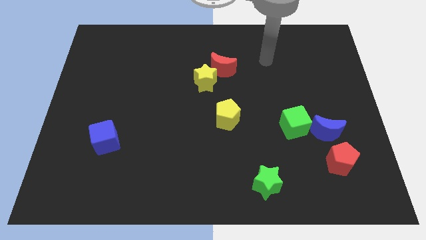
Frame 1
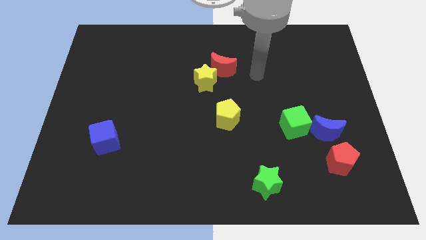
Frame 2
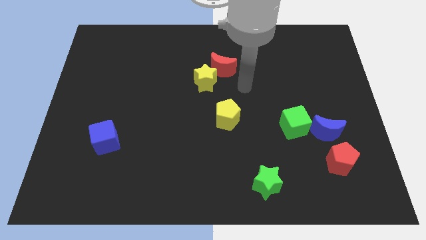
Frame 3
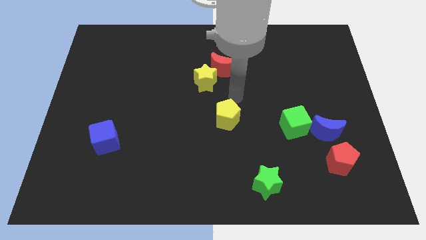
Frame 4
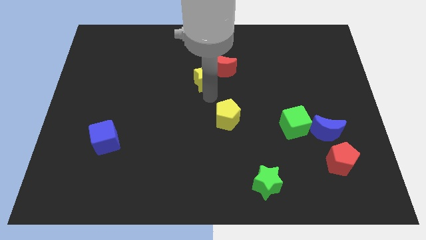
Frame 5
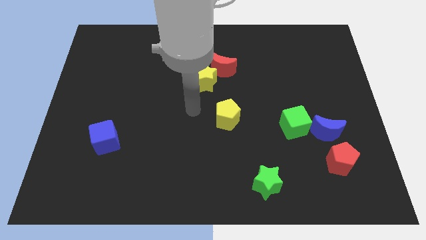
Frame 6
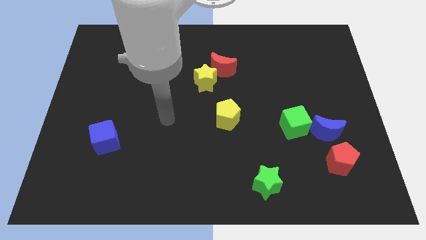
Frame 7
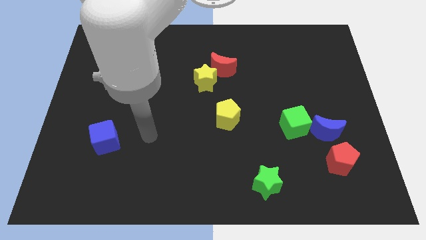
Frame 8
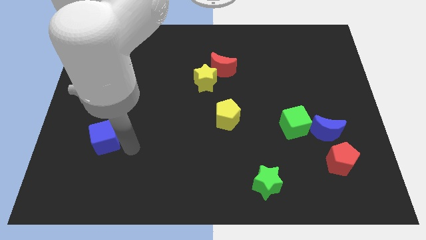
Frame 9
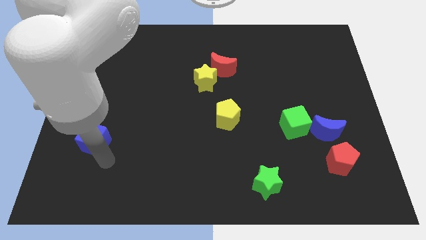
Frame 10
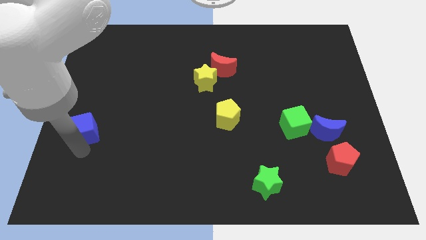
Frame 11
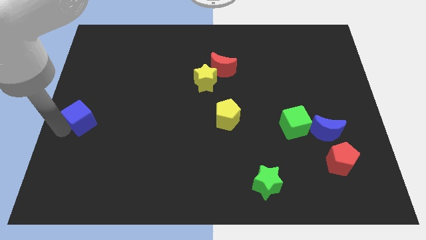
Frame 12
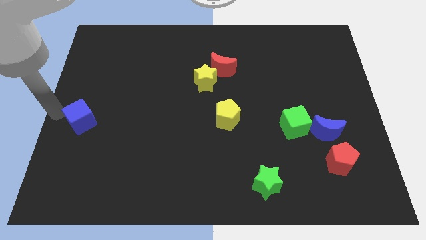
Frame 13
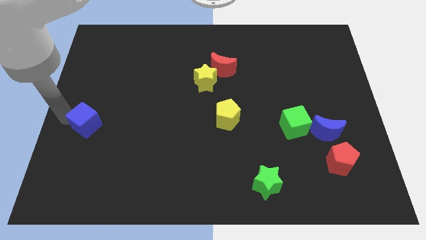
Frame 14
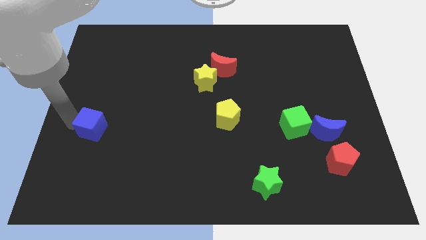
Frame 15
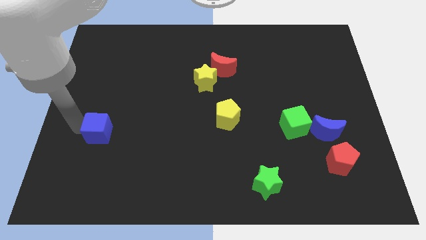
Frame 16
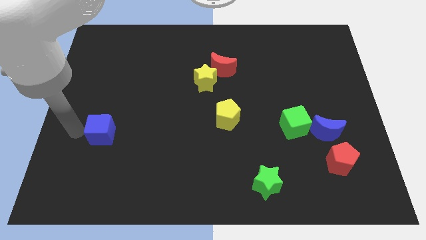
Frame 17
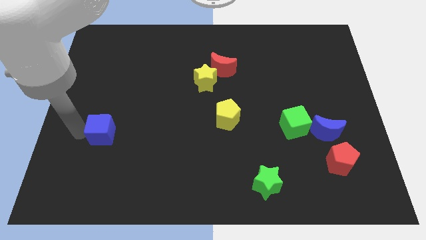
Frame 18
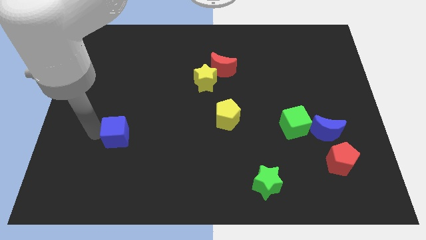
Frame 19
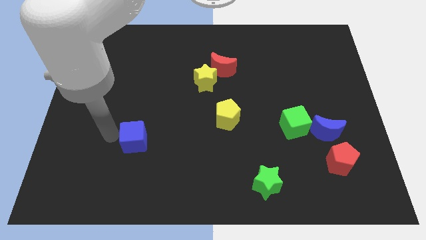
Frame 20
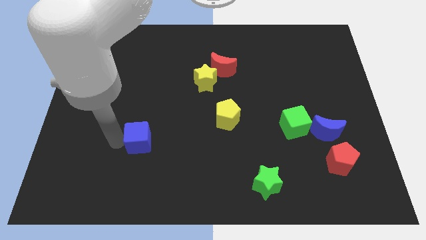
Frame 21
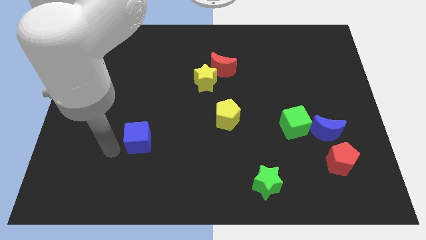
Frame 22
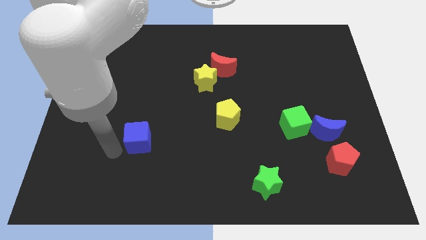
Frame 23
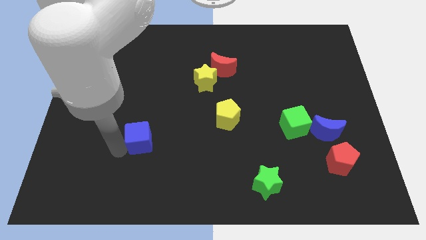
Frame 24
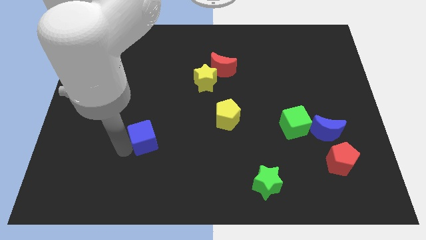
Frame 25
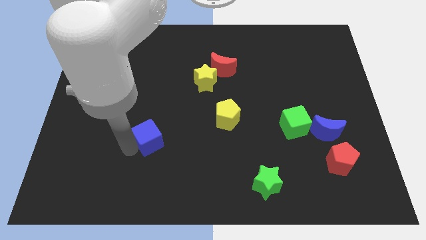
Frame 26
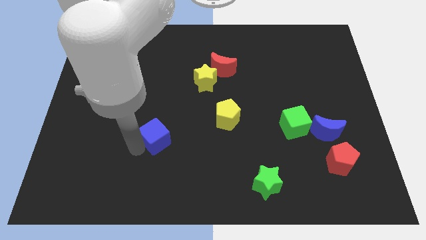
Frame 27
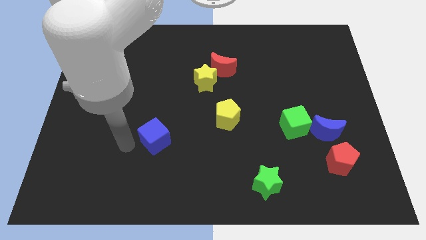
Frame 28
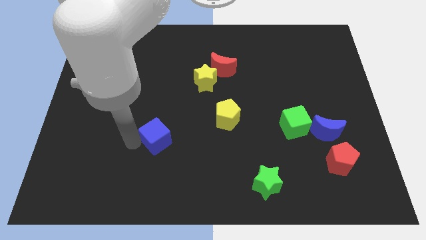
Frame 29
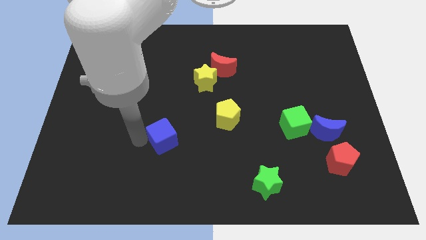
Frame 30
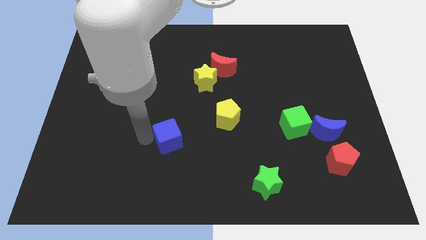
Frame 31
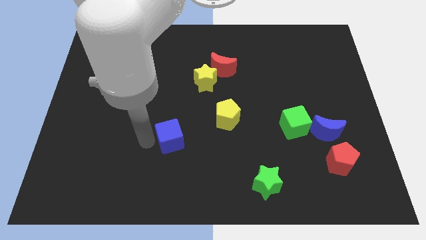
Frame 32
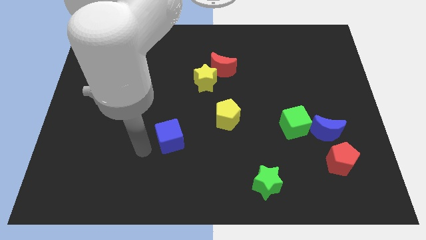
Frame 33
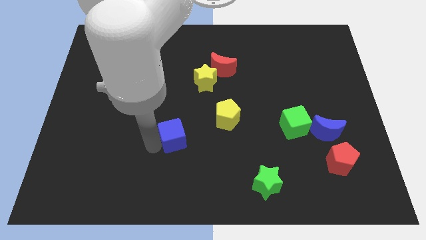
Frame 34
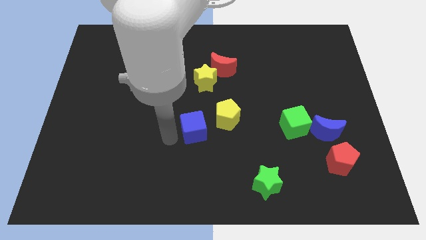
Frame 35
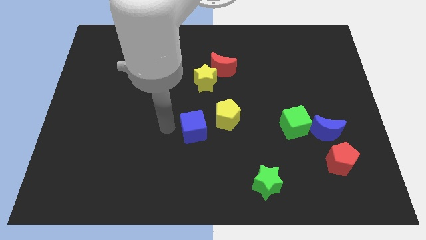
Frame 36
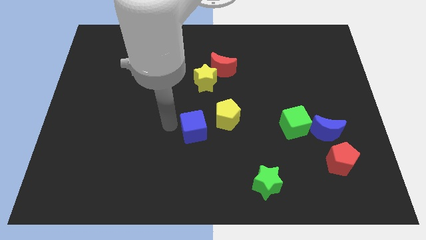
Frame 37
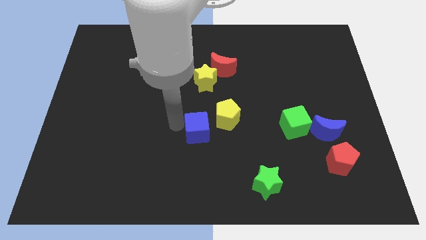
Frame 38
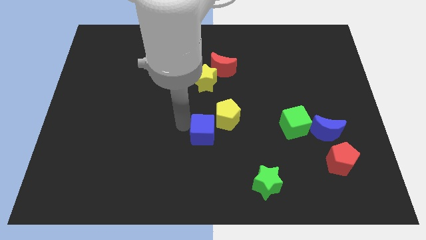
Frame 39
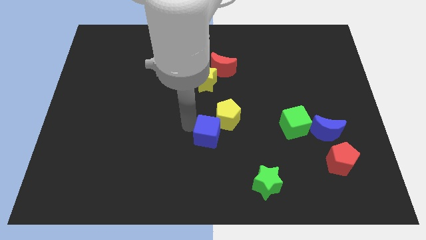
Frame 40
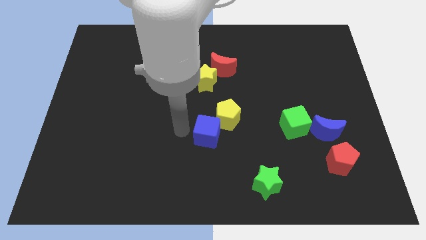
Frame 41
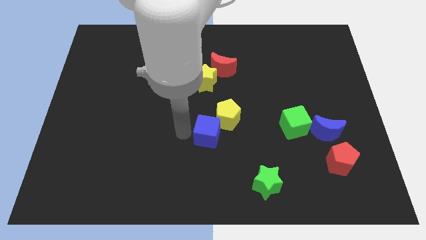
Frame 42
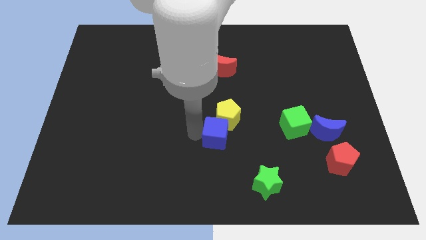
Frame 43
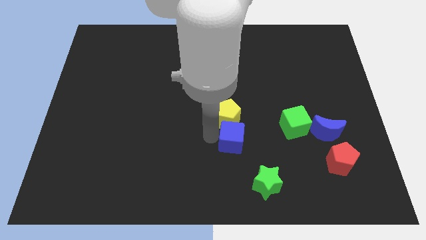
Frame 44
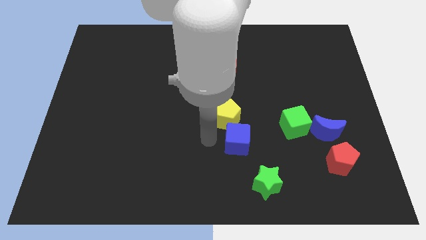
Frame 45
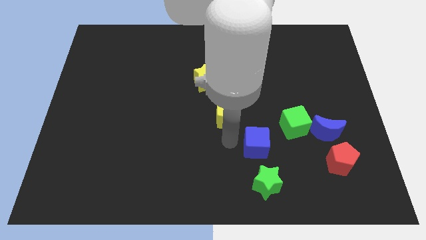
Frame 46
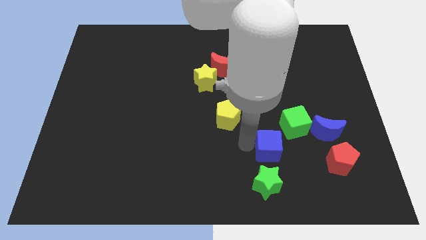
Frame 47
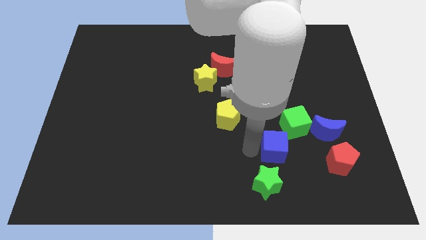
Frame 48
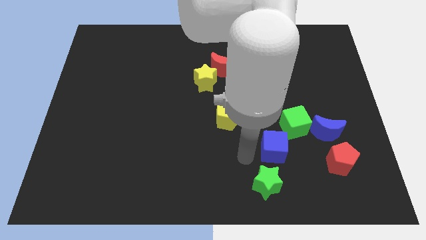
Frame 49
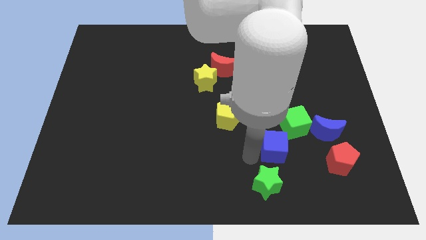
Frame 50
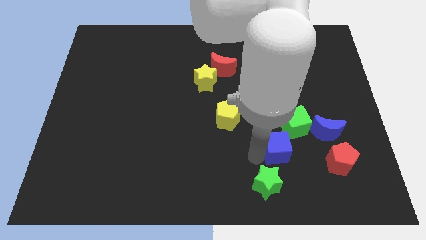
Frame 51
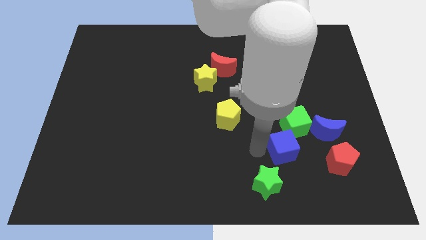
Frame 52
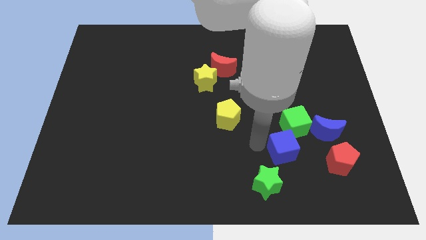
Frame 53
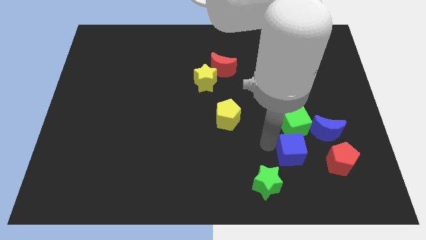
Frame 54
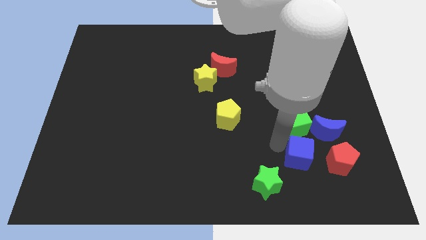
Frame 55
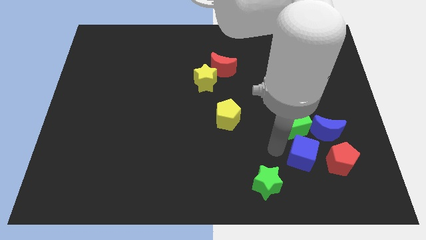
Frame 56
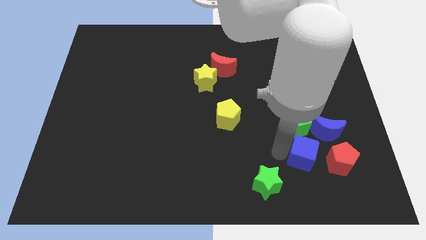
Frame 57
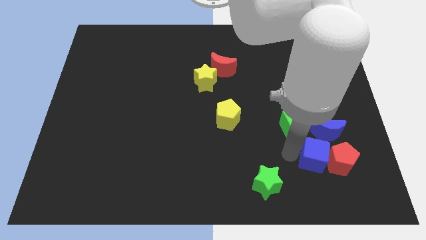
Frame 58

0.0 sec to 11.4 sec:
push the blue cube next to the red pentagon

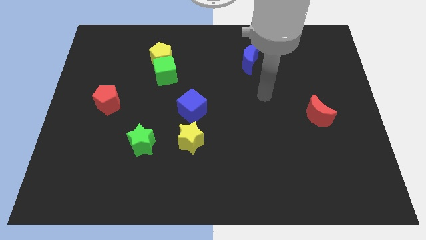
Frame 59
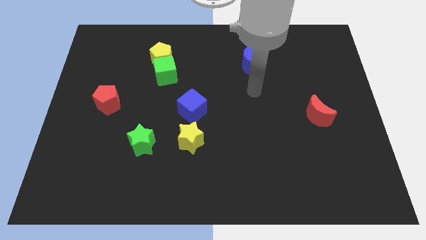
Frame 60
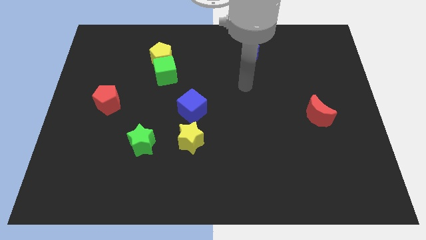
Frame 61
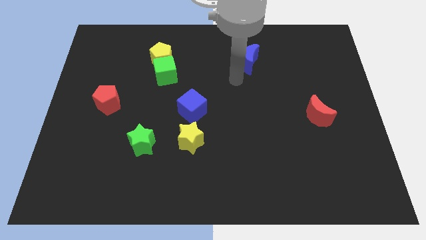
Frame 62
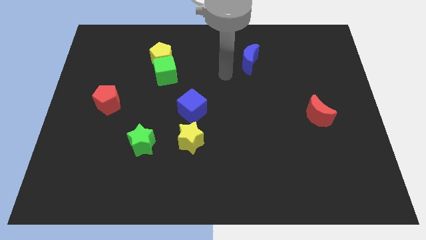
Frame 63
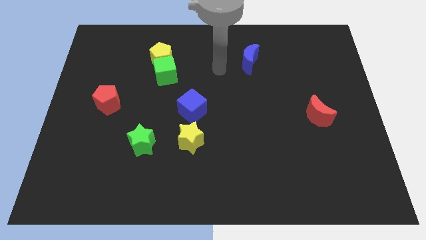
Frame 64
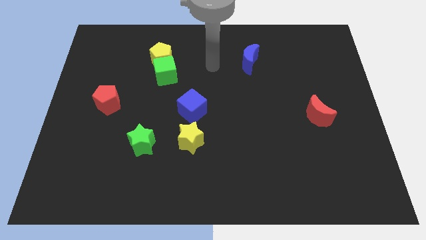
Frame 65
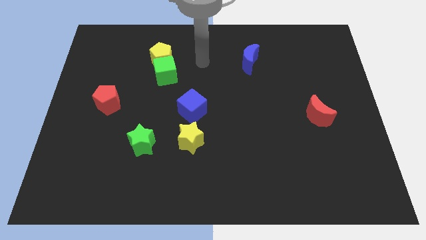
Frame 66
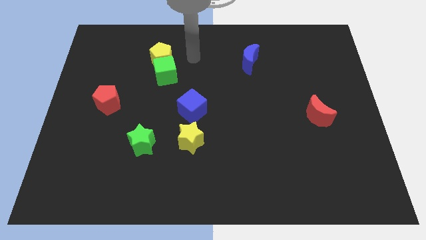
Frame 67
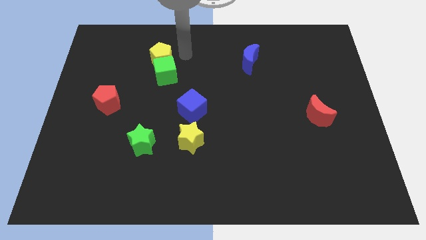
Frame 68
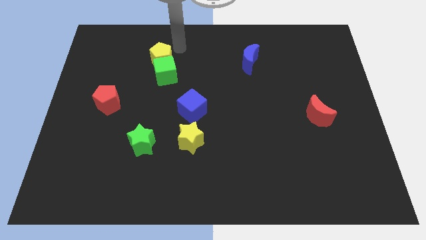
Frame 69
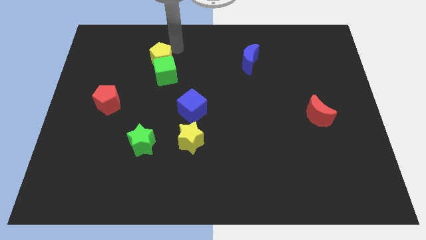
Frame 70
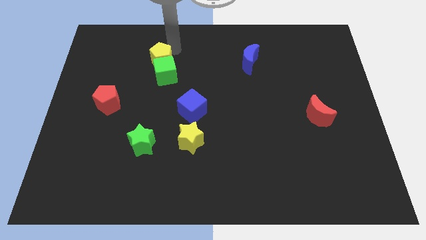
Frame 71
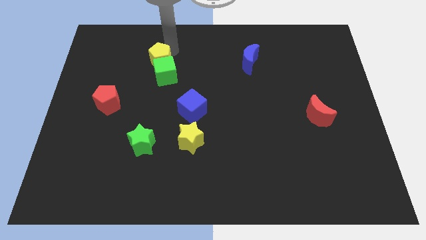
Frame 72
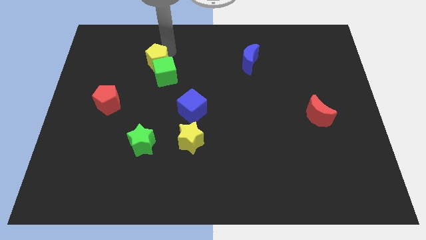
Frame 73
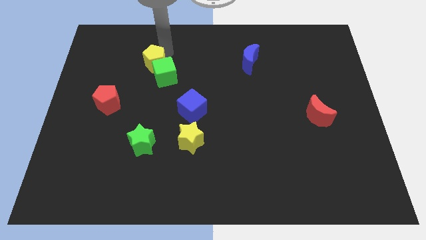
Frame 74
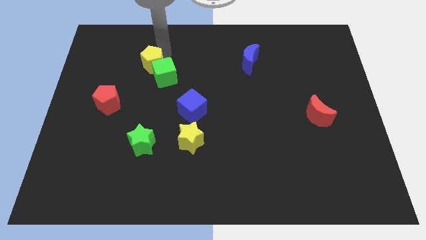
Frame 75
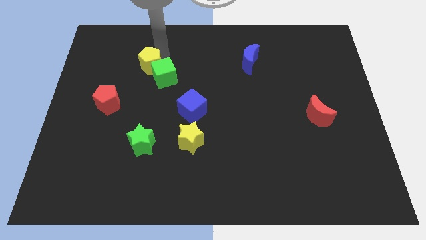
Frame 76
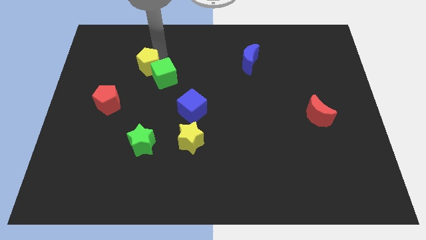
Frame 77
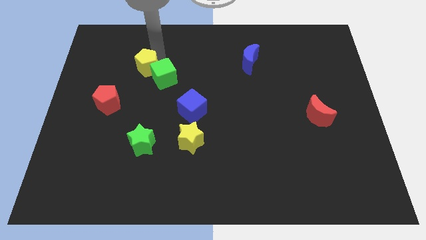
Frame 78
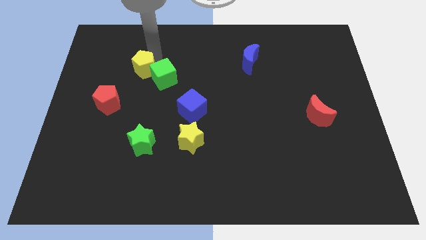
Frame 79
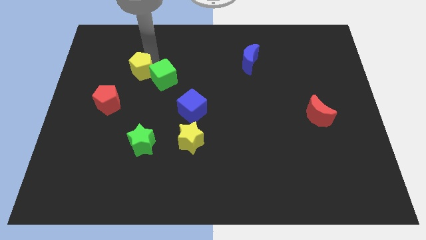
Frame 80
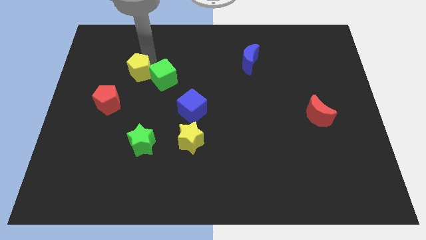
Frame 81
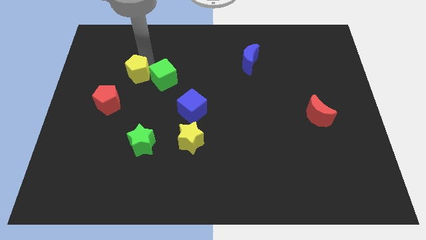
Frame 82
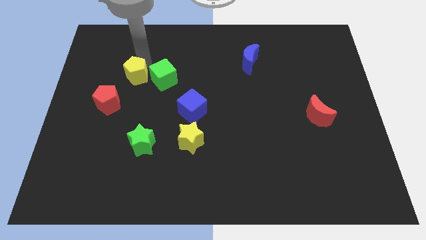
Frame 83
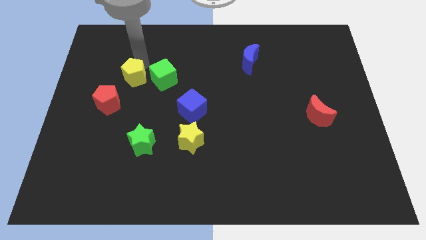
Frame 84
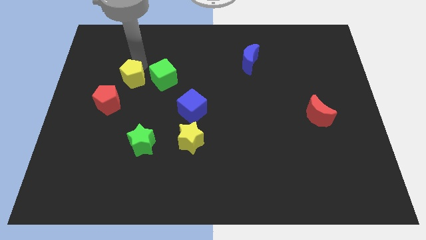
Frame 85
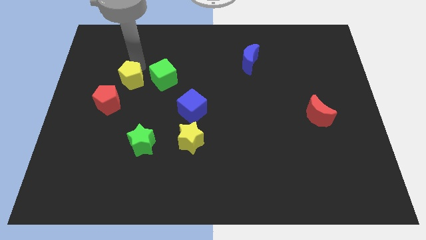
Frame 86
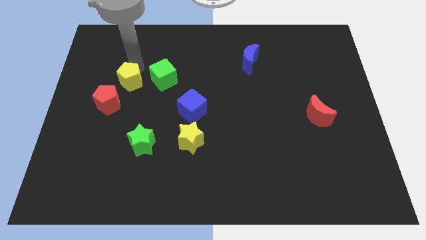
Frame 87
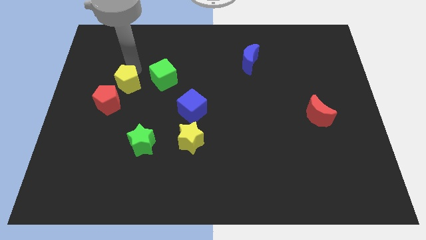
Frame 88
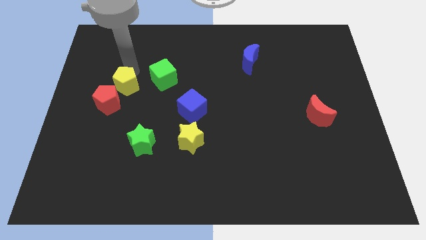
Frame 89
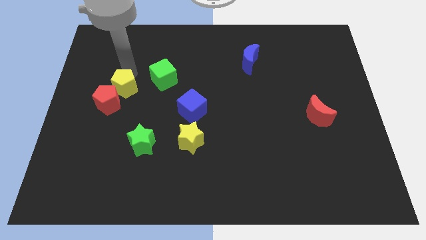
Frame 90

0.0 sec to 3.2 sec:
slide the yellow pentagon towards the red pentagon
